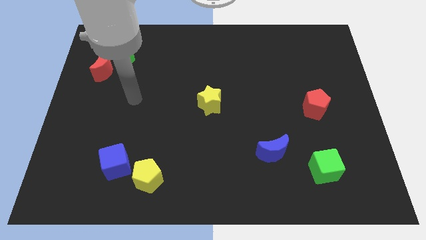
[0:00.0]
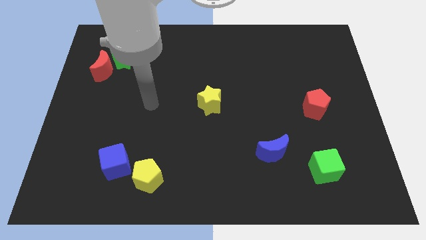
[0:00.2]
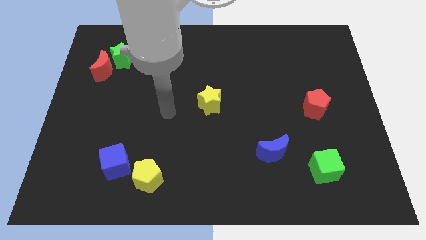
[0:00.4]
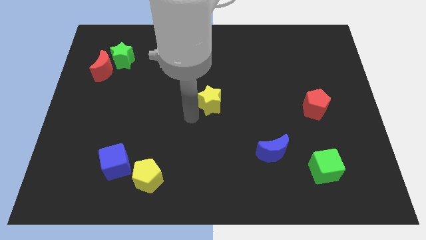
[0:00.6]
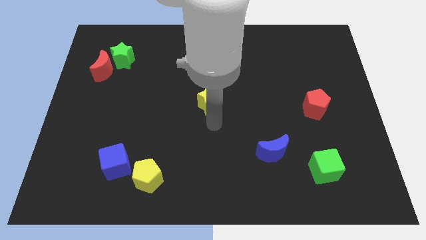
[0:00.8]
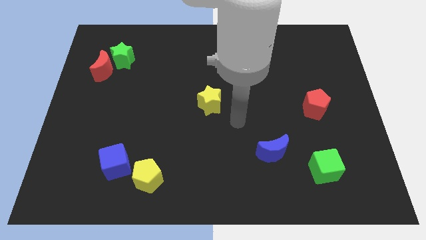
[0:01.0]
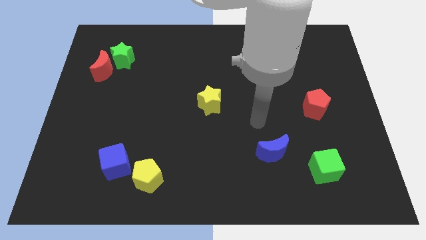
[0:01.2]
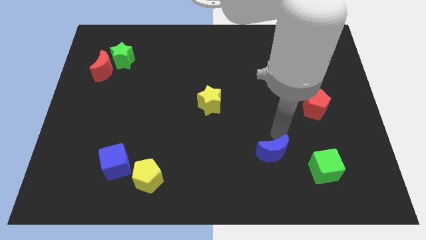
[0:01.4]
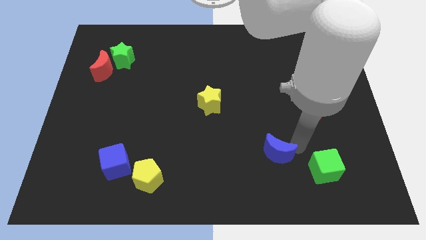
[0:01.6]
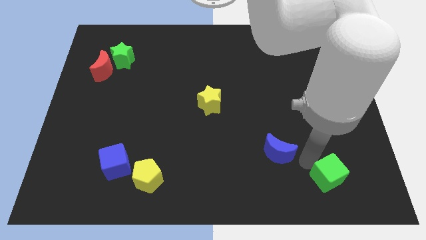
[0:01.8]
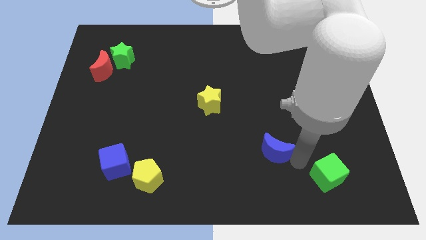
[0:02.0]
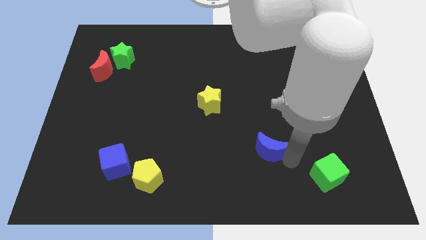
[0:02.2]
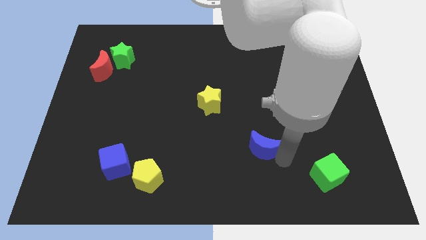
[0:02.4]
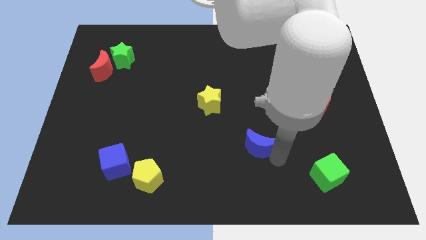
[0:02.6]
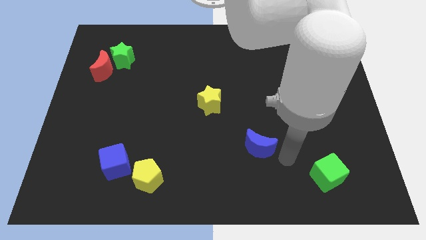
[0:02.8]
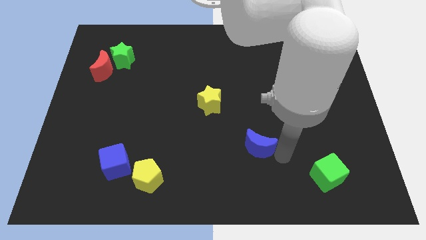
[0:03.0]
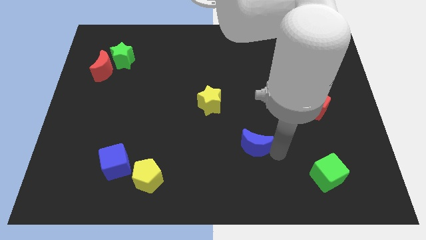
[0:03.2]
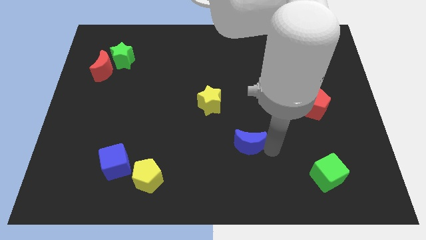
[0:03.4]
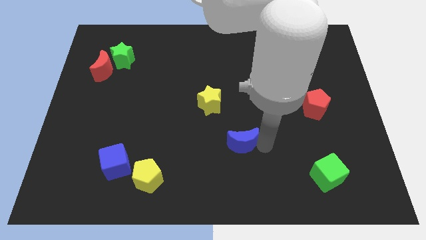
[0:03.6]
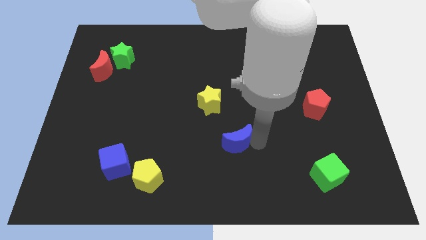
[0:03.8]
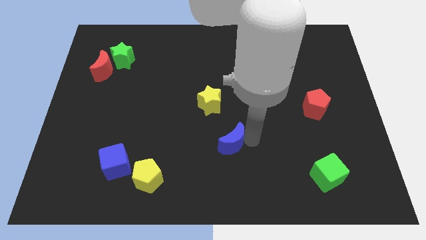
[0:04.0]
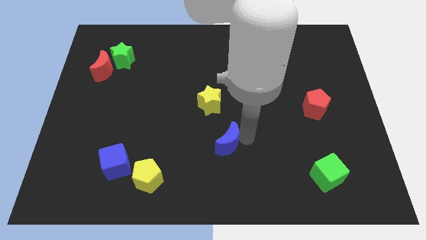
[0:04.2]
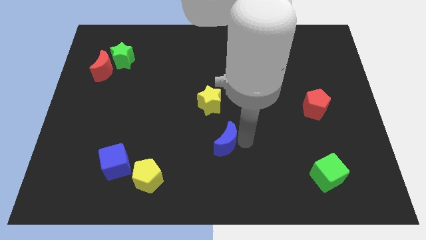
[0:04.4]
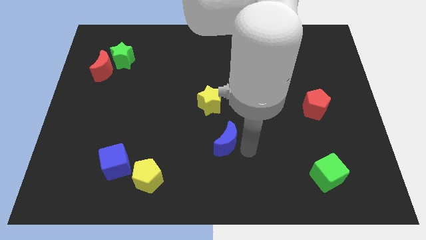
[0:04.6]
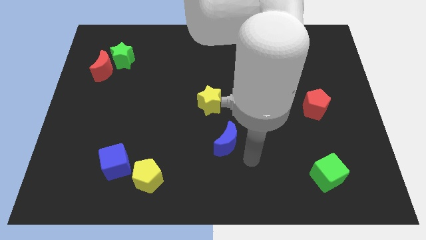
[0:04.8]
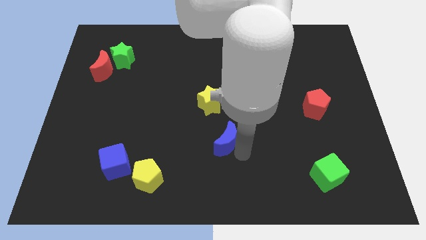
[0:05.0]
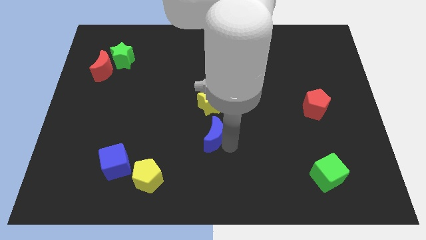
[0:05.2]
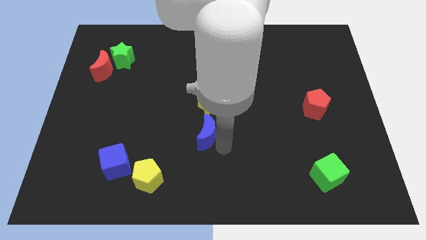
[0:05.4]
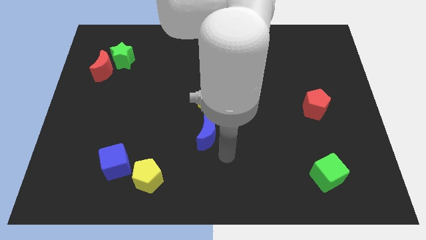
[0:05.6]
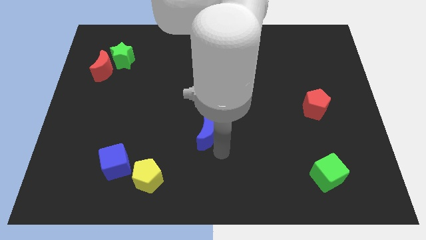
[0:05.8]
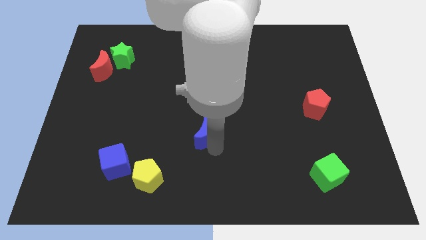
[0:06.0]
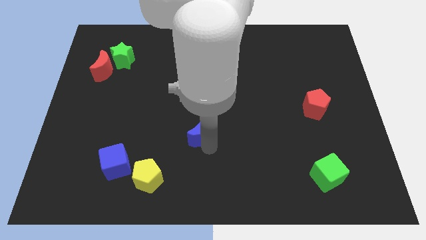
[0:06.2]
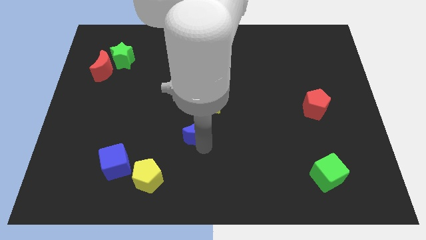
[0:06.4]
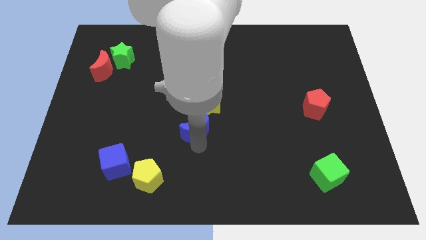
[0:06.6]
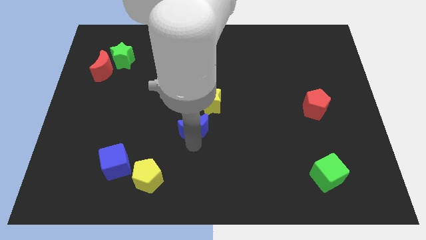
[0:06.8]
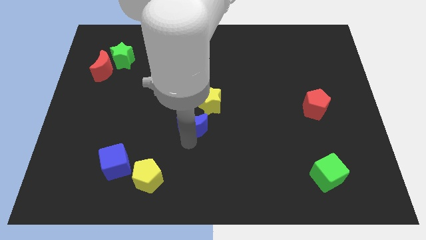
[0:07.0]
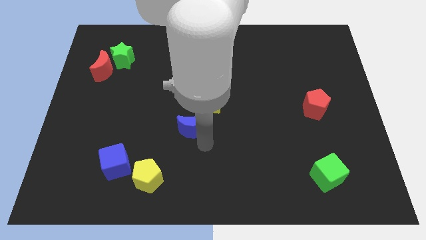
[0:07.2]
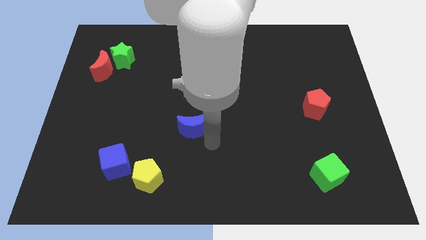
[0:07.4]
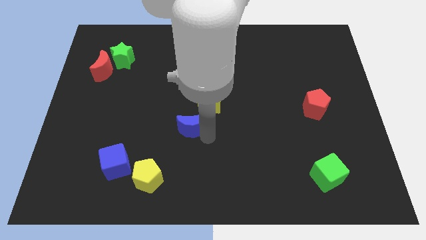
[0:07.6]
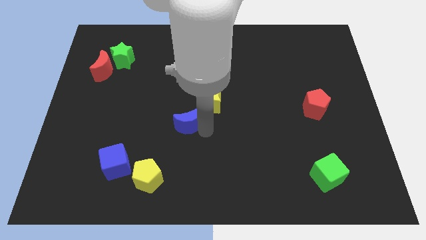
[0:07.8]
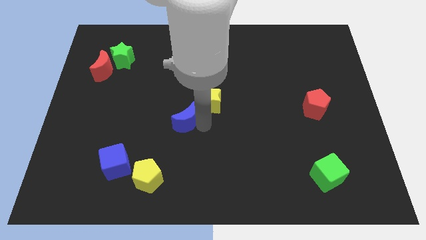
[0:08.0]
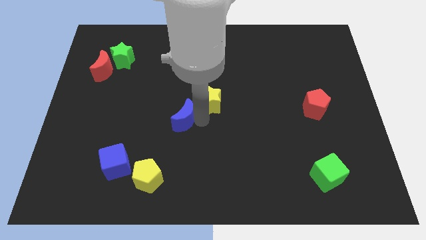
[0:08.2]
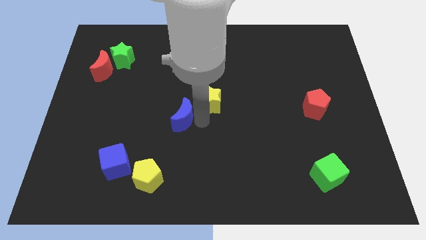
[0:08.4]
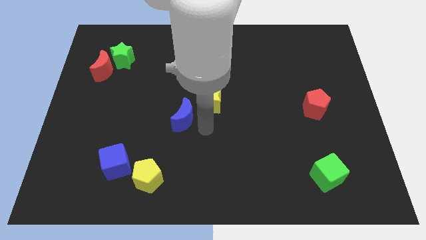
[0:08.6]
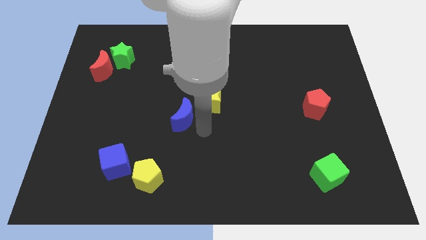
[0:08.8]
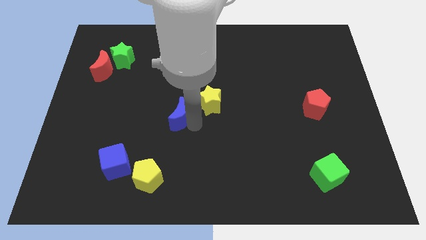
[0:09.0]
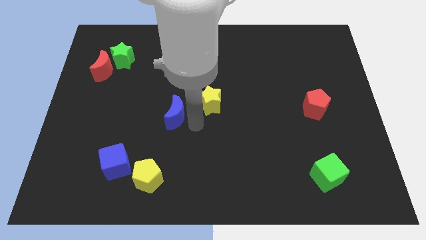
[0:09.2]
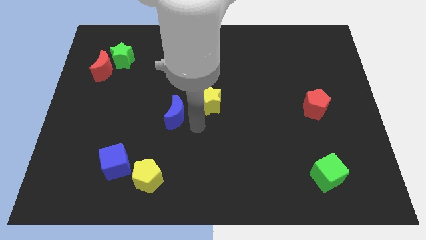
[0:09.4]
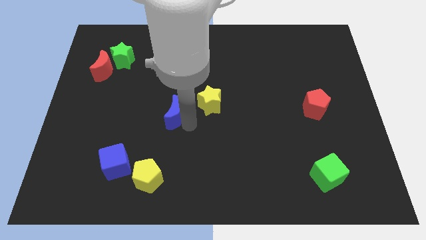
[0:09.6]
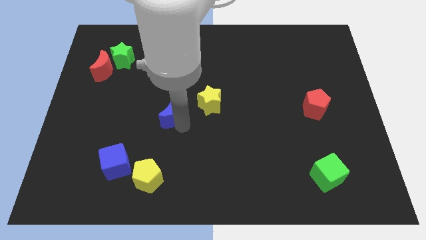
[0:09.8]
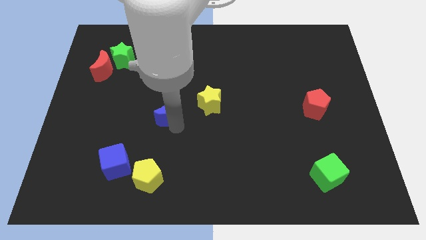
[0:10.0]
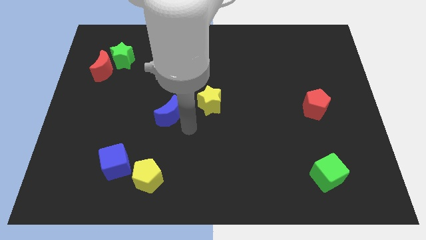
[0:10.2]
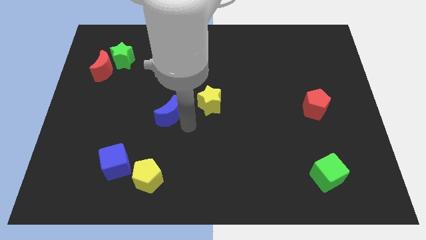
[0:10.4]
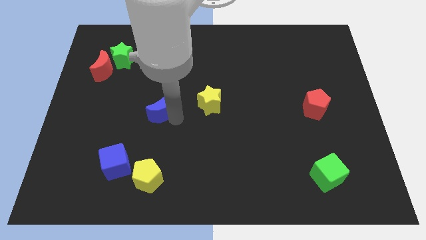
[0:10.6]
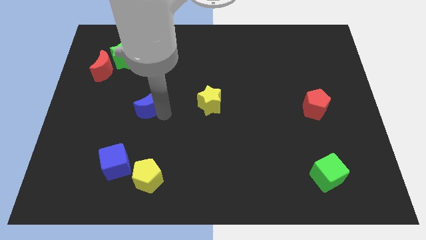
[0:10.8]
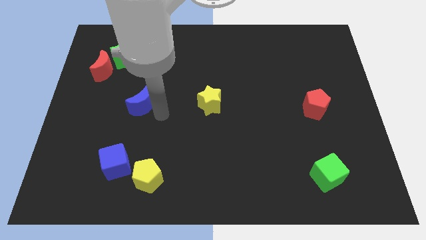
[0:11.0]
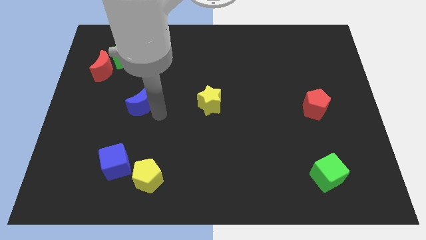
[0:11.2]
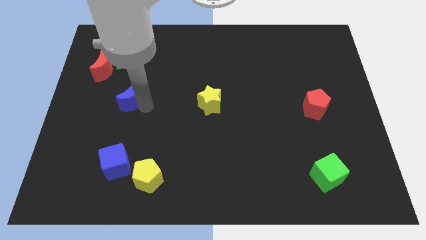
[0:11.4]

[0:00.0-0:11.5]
move the blue moon to the bottom of the green star

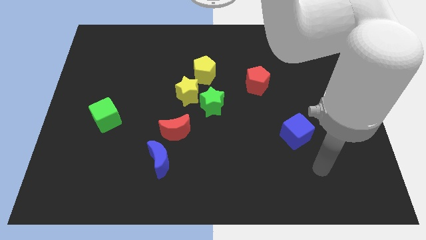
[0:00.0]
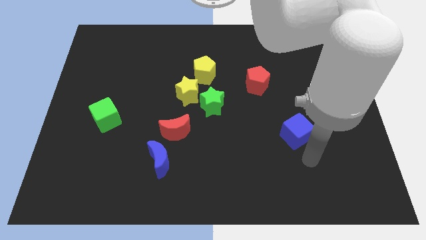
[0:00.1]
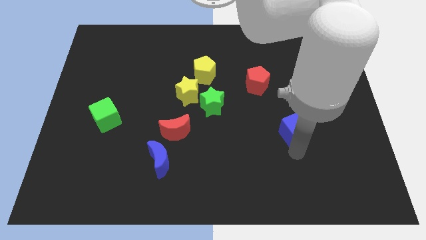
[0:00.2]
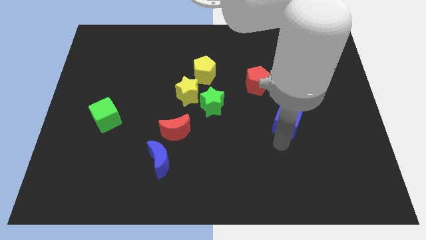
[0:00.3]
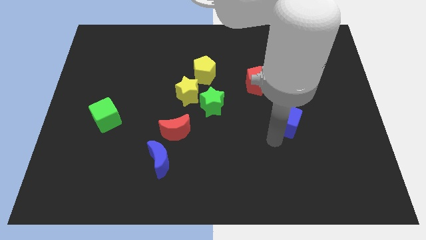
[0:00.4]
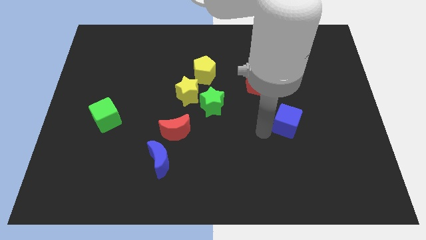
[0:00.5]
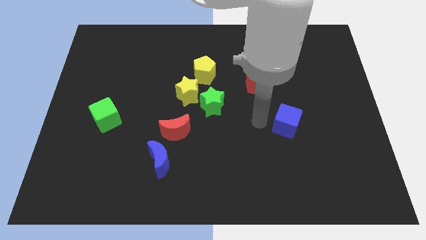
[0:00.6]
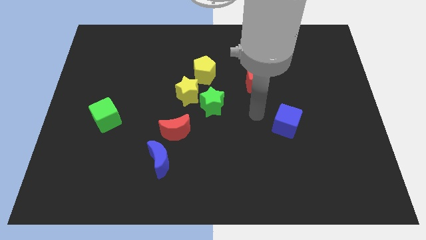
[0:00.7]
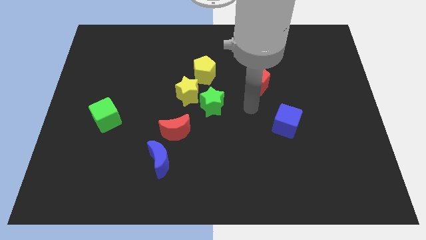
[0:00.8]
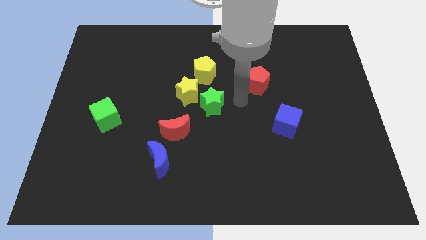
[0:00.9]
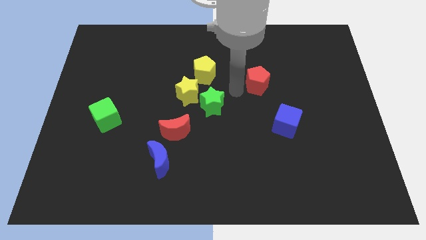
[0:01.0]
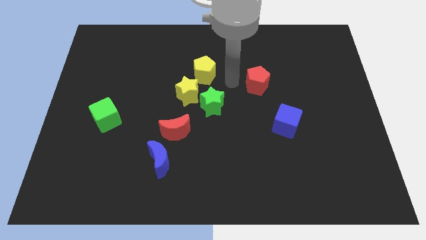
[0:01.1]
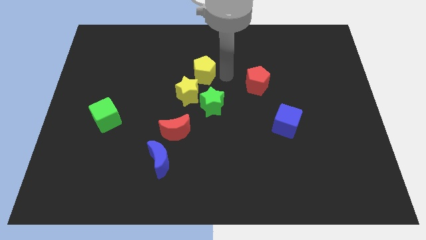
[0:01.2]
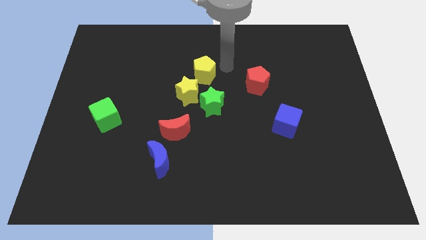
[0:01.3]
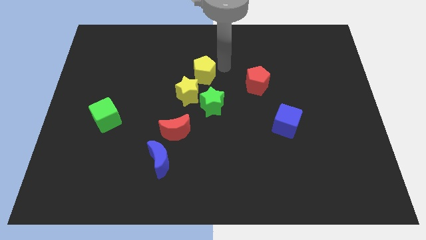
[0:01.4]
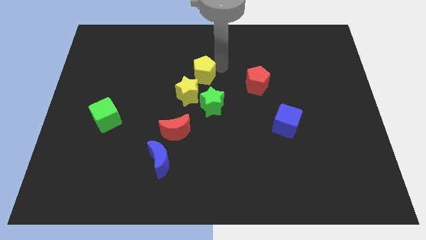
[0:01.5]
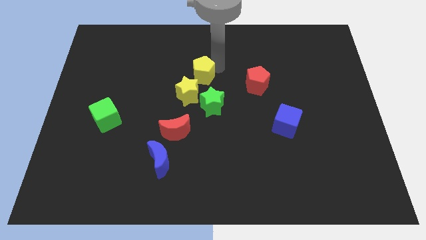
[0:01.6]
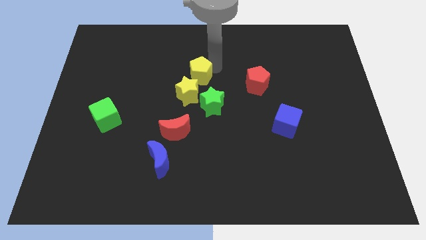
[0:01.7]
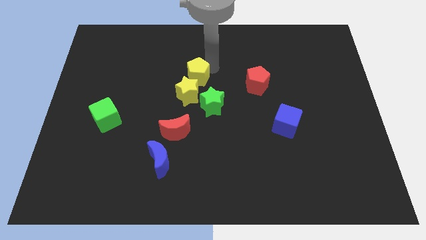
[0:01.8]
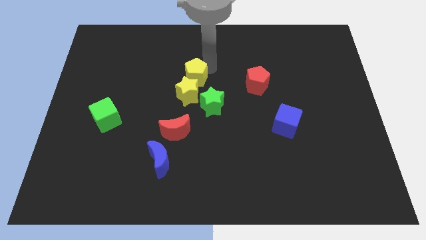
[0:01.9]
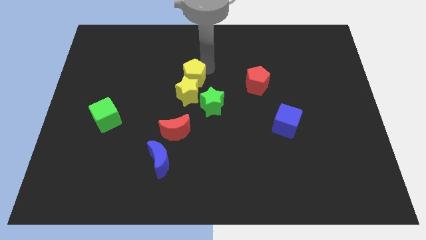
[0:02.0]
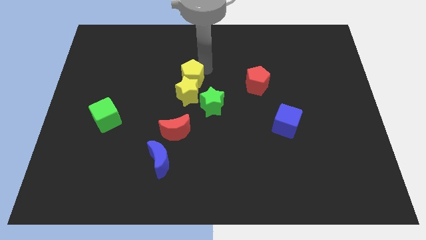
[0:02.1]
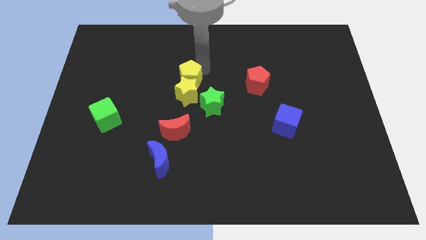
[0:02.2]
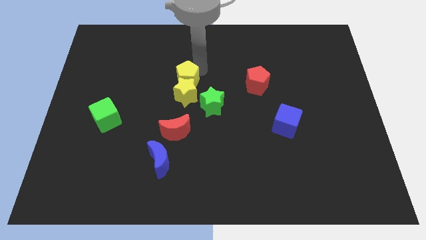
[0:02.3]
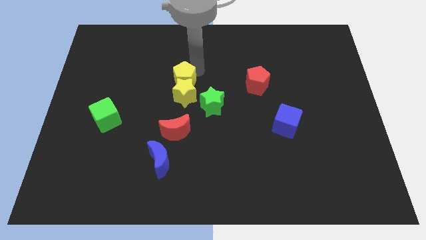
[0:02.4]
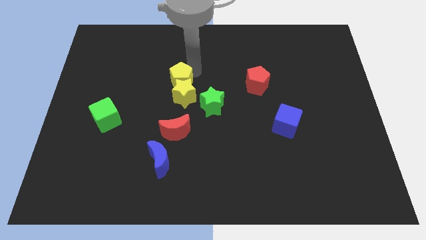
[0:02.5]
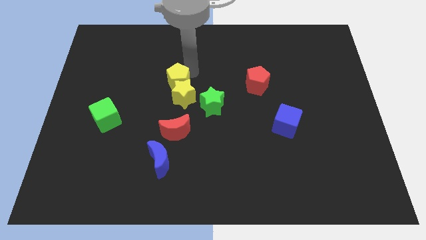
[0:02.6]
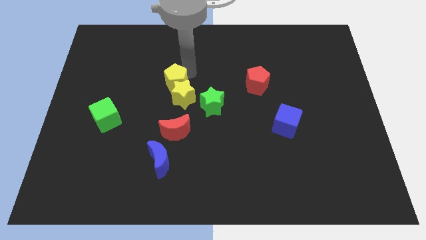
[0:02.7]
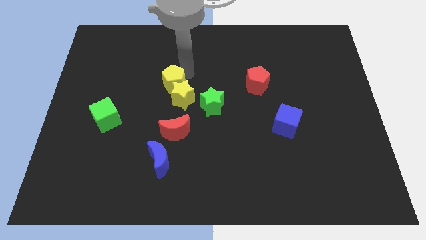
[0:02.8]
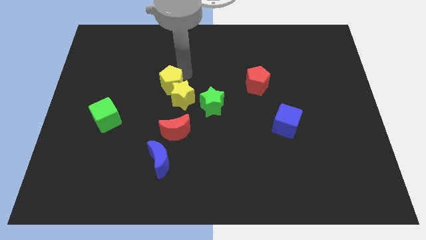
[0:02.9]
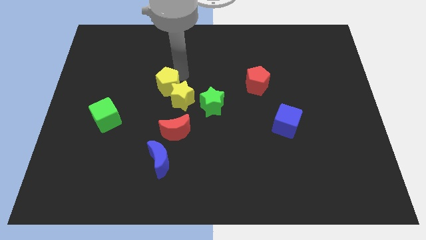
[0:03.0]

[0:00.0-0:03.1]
slide the yellow pentagon left of the yellow star
